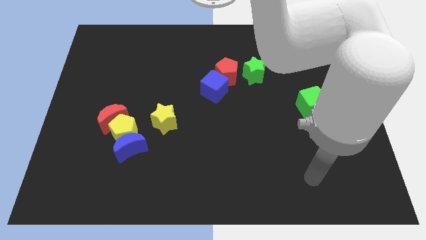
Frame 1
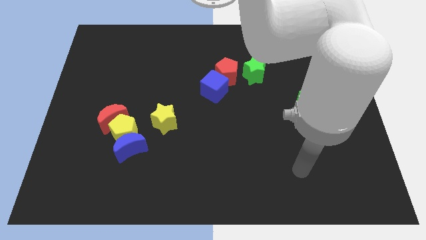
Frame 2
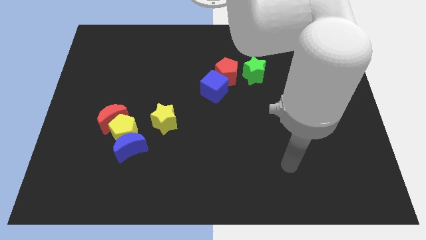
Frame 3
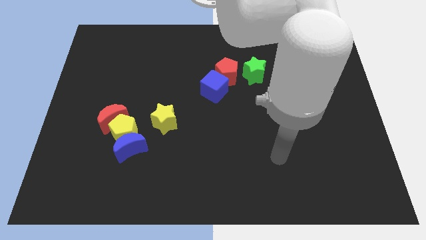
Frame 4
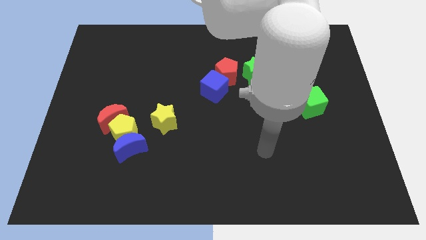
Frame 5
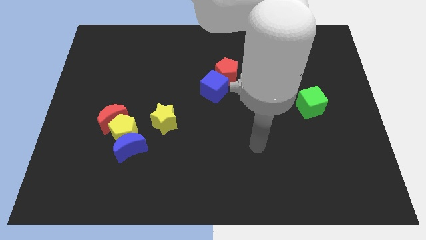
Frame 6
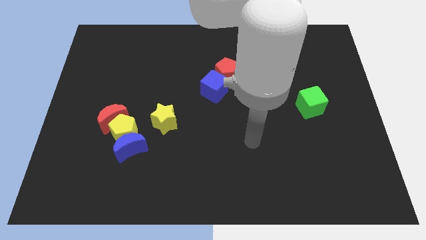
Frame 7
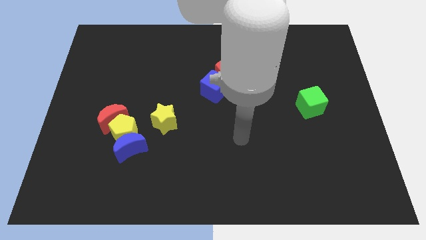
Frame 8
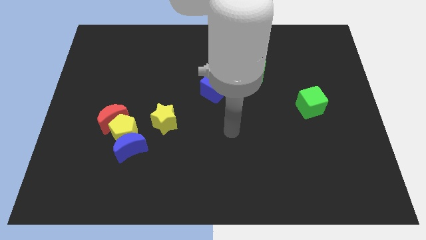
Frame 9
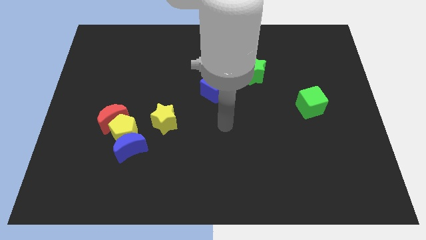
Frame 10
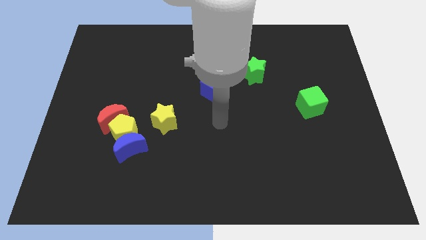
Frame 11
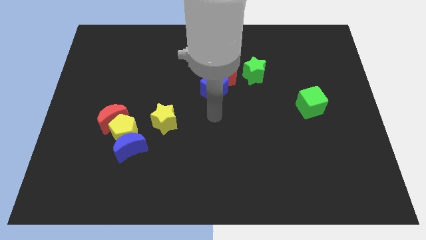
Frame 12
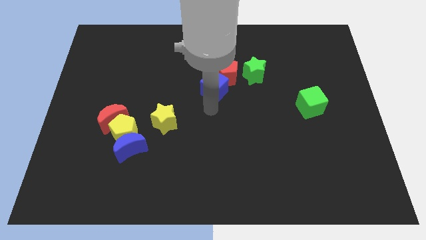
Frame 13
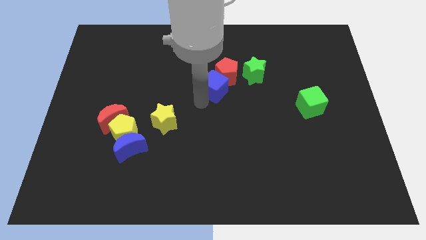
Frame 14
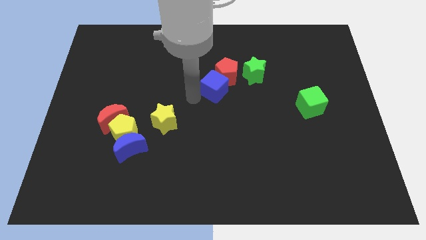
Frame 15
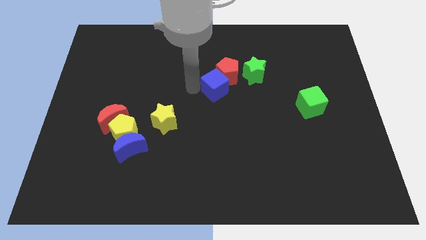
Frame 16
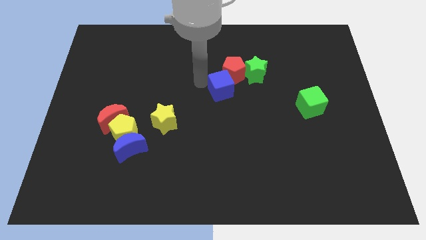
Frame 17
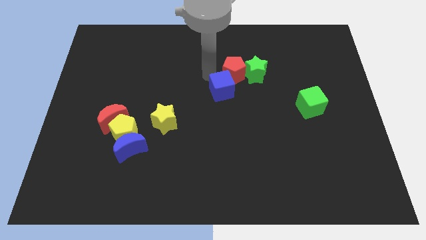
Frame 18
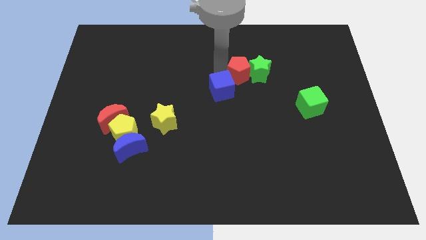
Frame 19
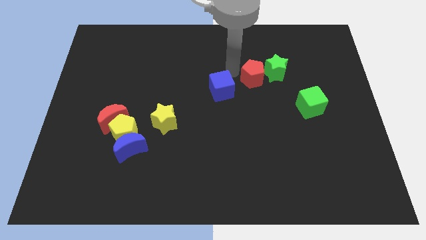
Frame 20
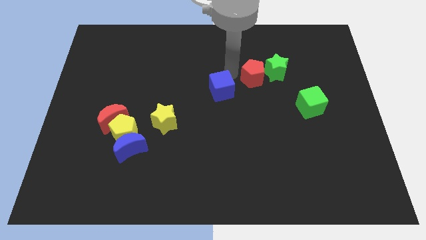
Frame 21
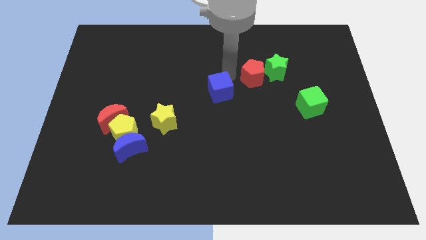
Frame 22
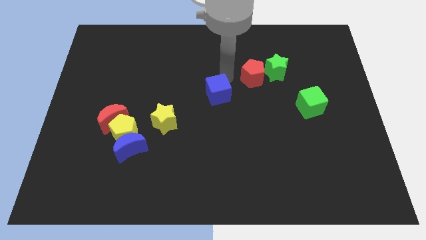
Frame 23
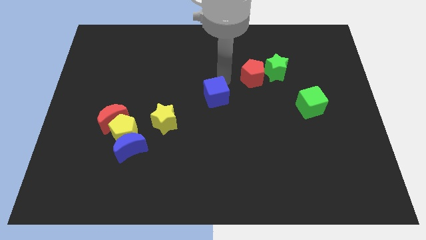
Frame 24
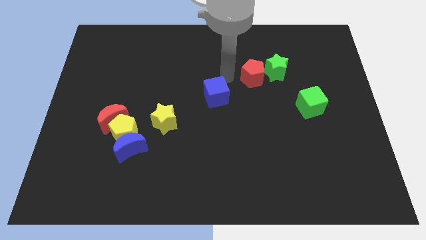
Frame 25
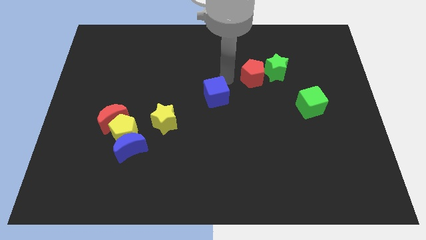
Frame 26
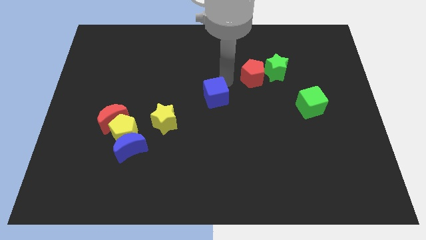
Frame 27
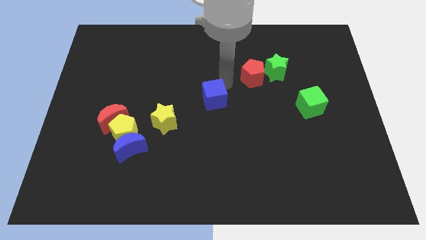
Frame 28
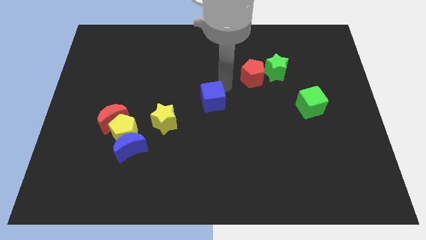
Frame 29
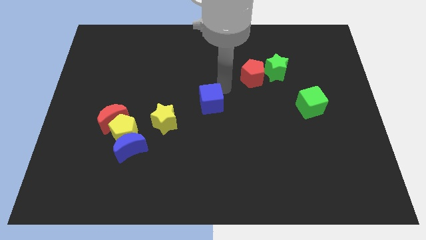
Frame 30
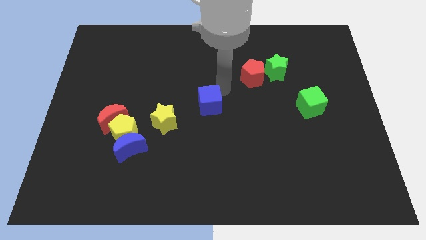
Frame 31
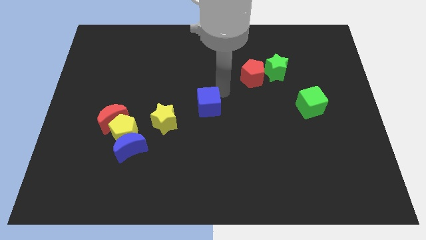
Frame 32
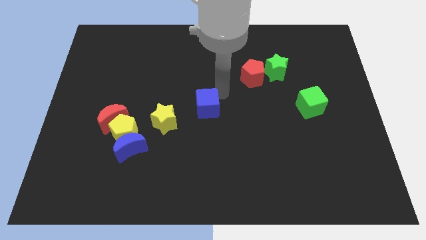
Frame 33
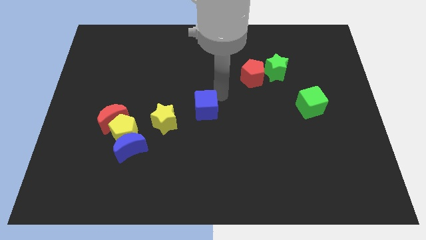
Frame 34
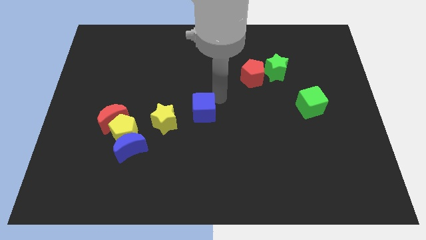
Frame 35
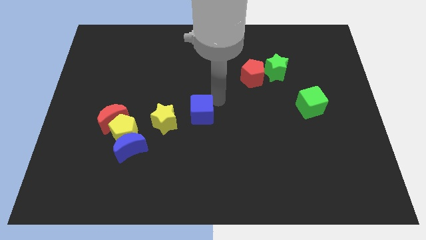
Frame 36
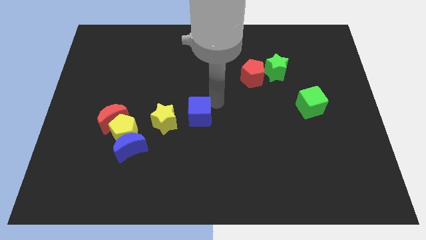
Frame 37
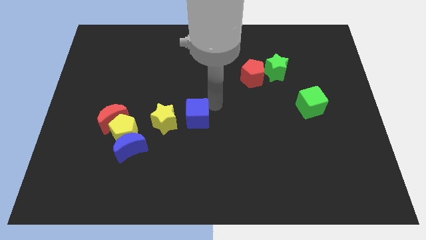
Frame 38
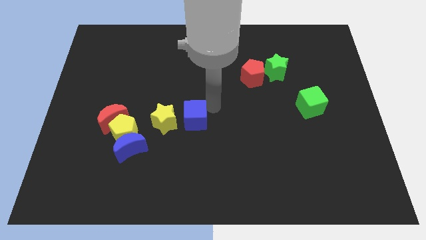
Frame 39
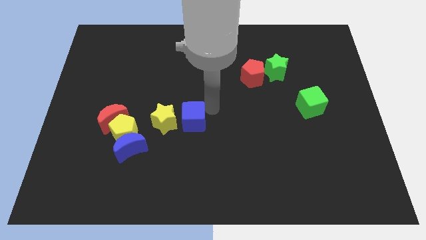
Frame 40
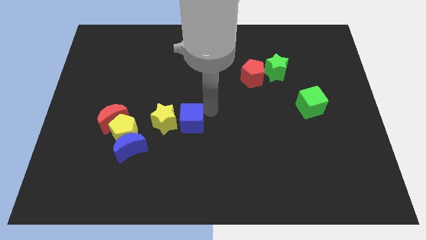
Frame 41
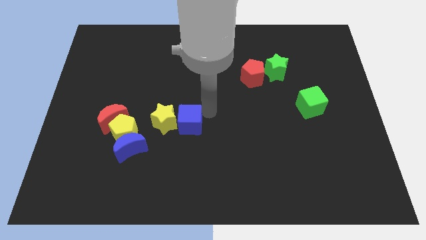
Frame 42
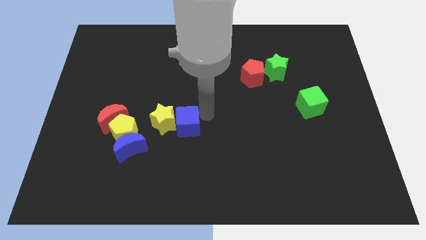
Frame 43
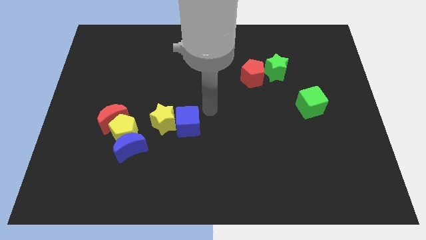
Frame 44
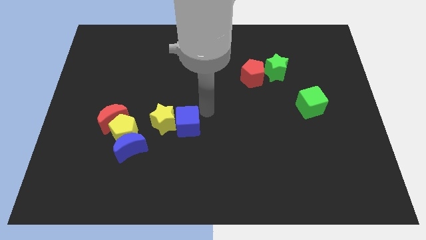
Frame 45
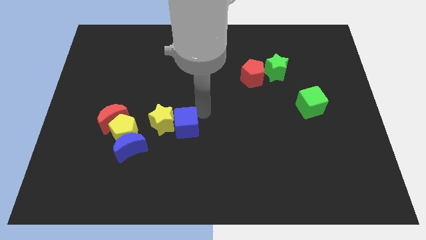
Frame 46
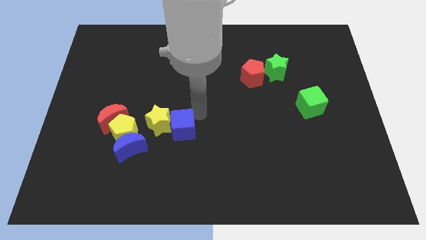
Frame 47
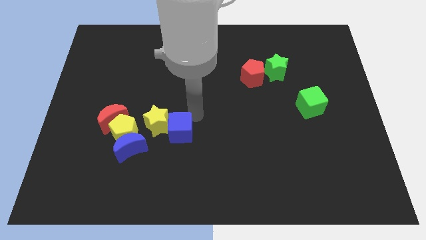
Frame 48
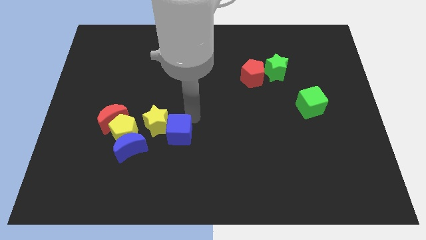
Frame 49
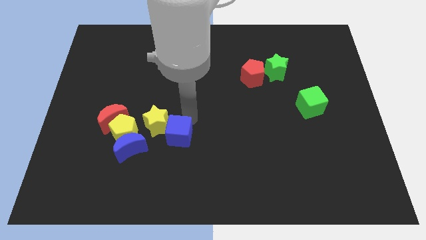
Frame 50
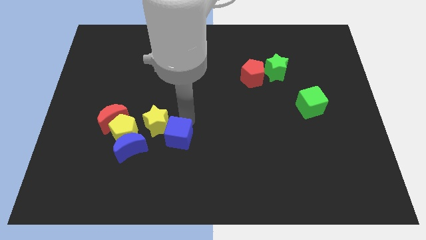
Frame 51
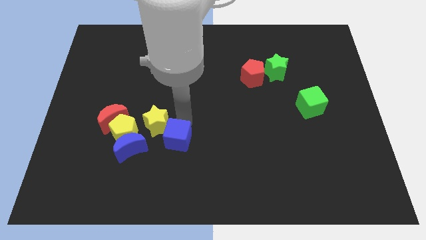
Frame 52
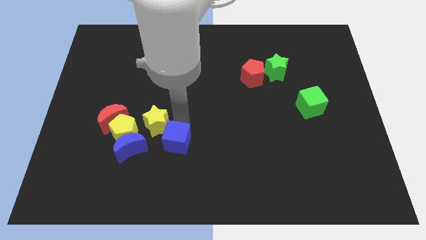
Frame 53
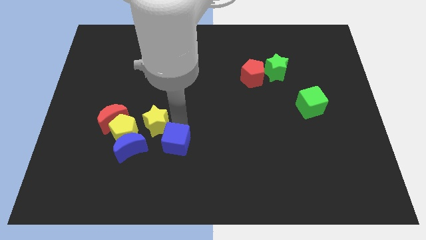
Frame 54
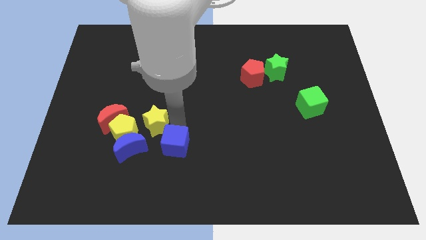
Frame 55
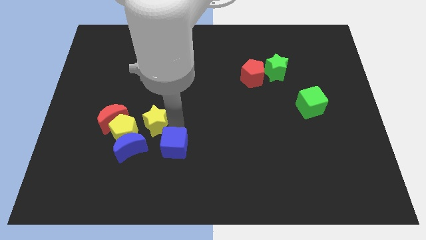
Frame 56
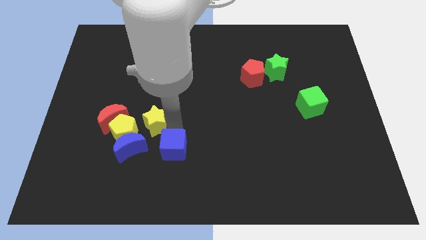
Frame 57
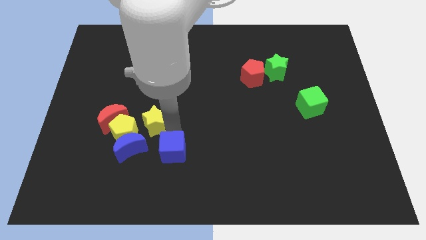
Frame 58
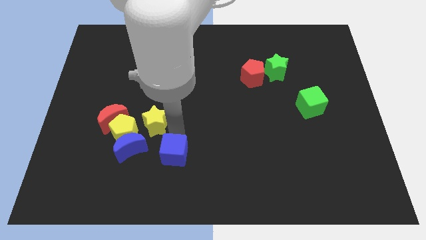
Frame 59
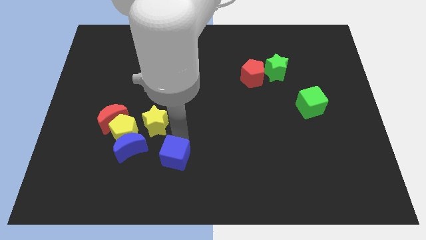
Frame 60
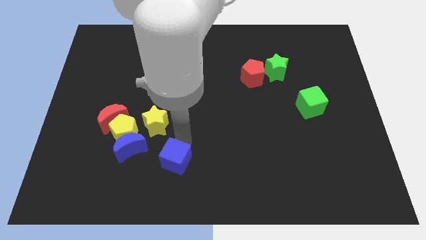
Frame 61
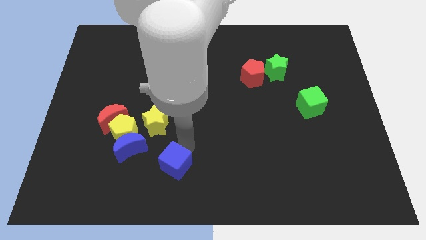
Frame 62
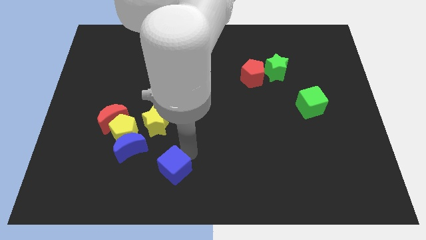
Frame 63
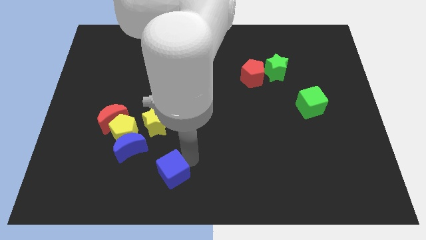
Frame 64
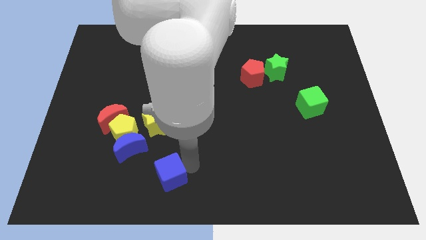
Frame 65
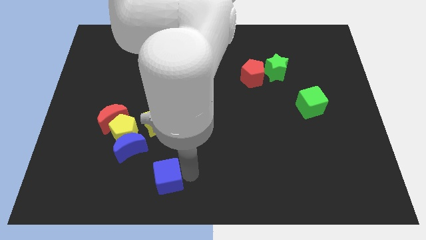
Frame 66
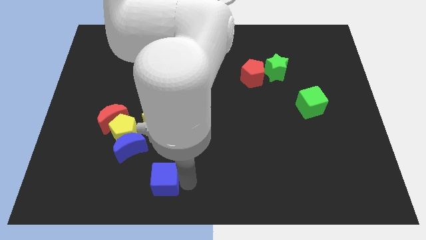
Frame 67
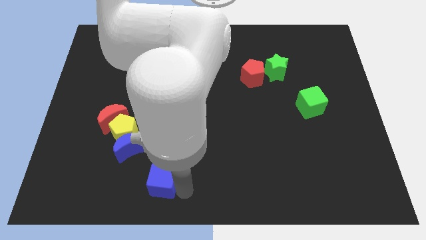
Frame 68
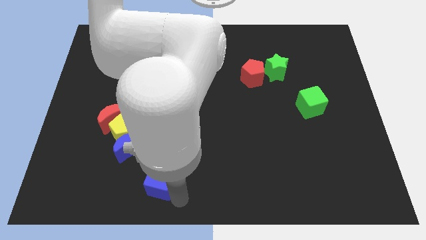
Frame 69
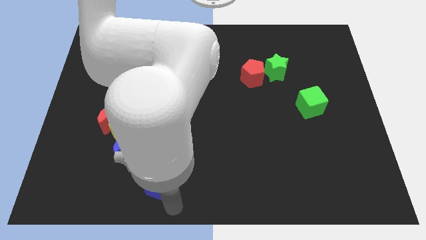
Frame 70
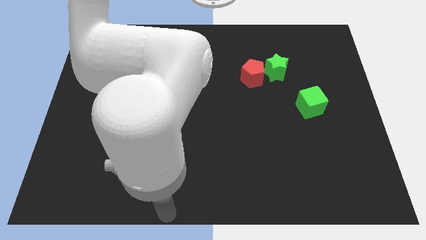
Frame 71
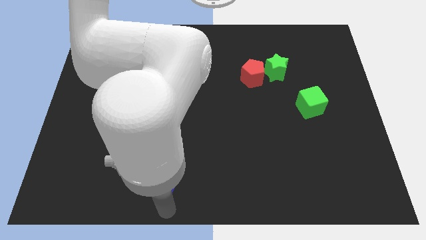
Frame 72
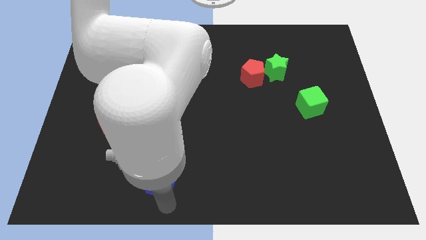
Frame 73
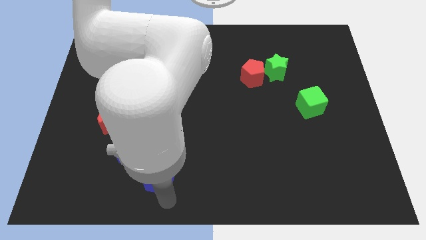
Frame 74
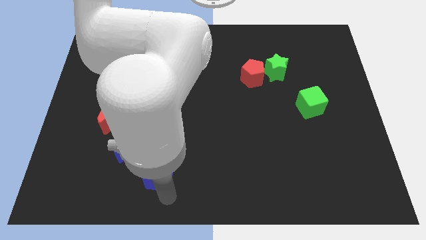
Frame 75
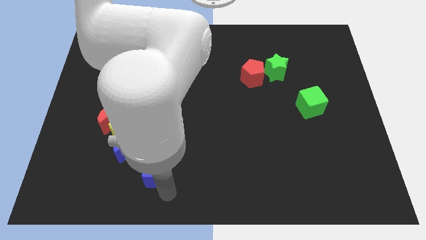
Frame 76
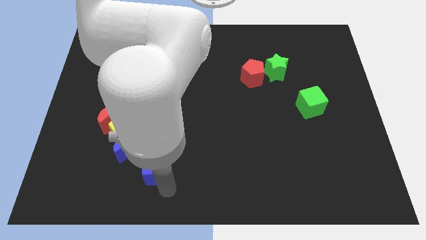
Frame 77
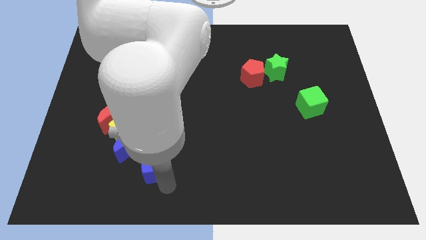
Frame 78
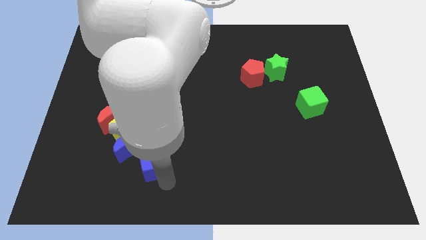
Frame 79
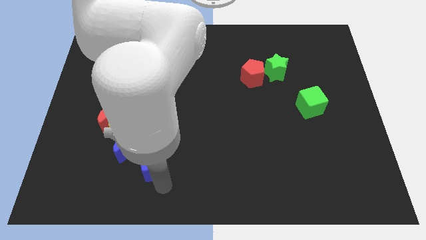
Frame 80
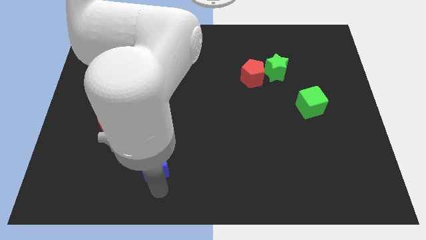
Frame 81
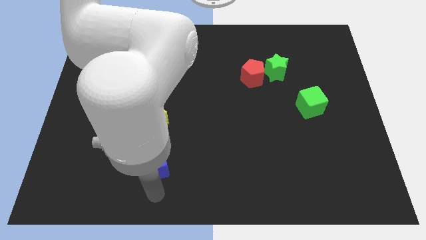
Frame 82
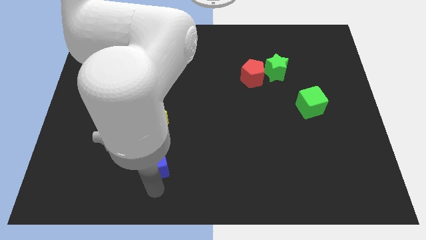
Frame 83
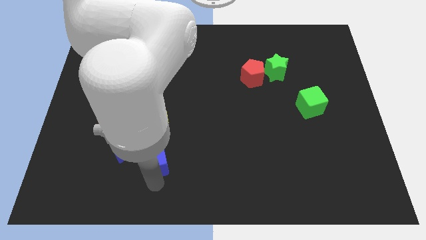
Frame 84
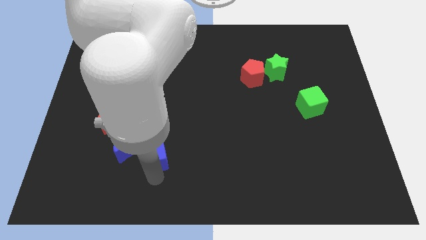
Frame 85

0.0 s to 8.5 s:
move the blue cube close to the blue moon
